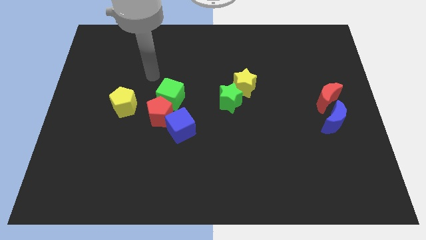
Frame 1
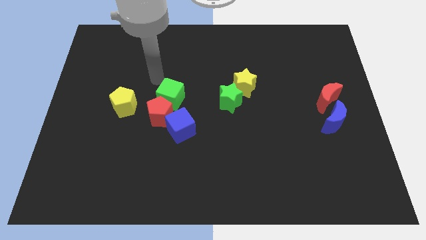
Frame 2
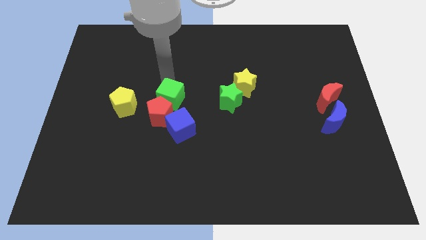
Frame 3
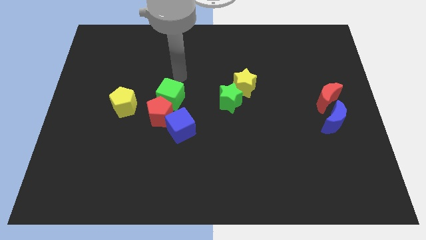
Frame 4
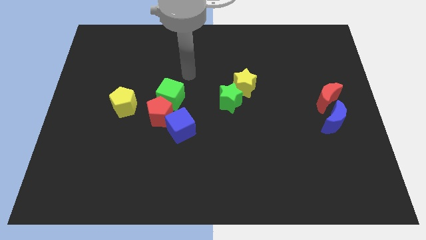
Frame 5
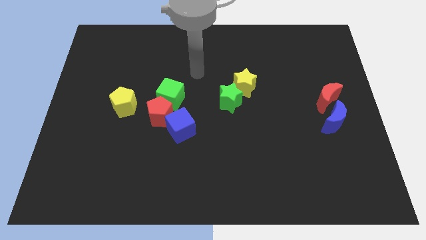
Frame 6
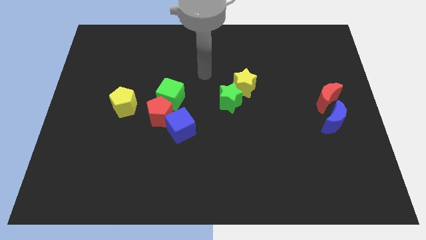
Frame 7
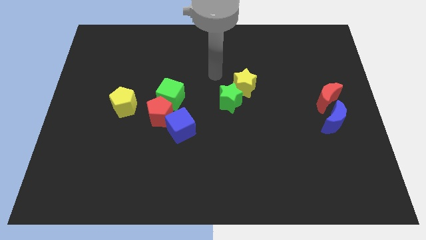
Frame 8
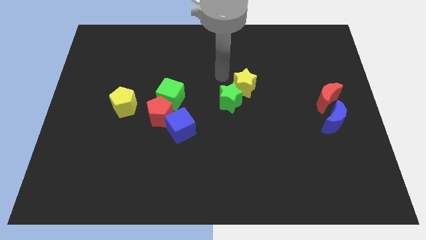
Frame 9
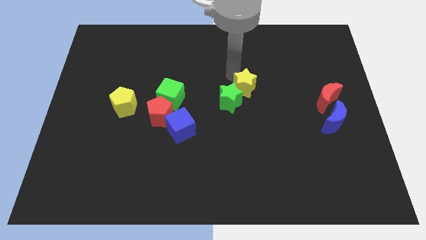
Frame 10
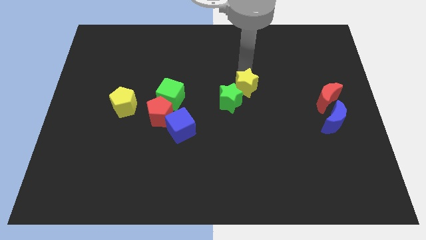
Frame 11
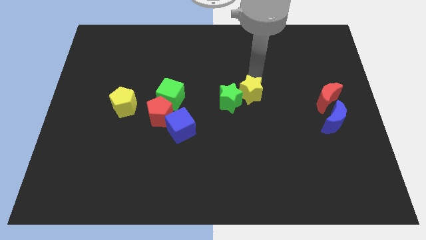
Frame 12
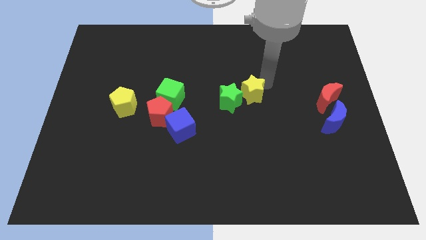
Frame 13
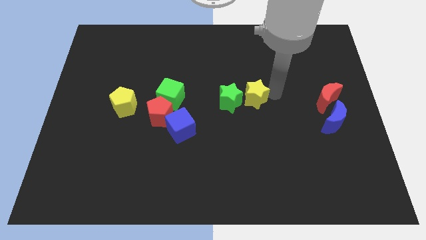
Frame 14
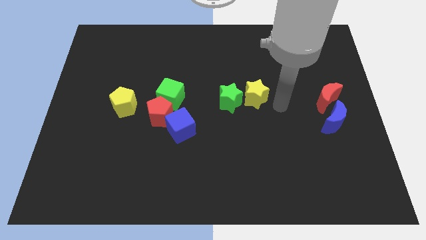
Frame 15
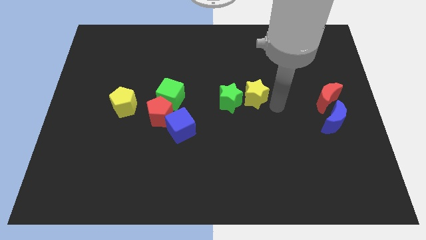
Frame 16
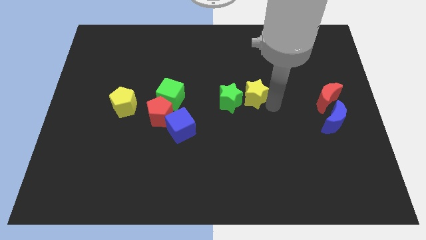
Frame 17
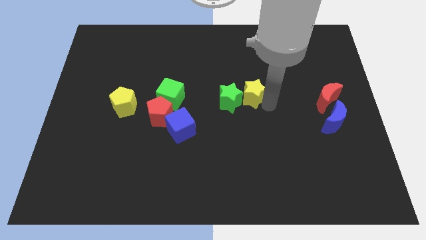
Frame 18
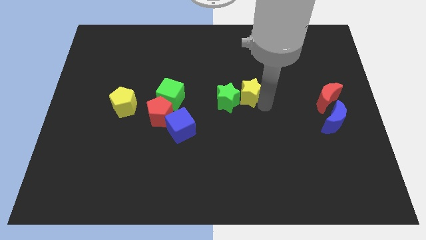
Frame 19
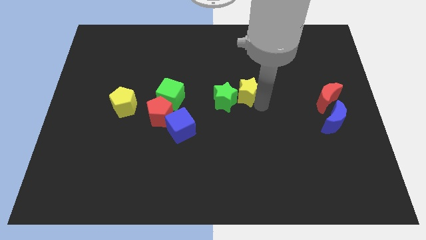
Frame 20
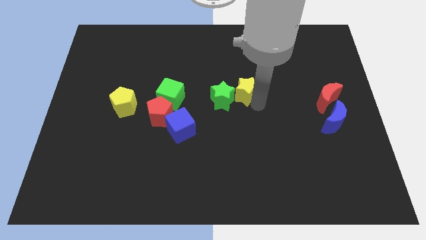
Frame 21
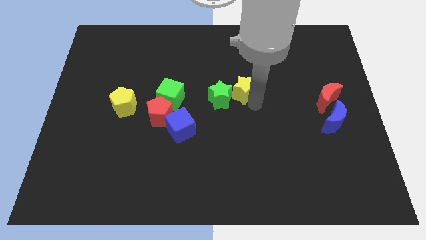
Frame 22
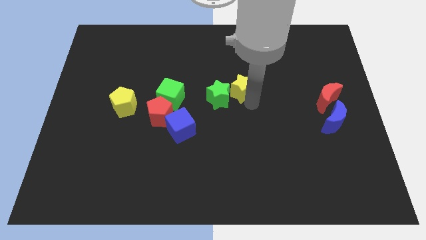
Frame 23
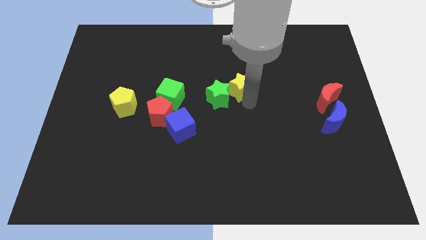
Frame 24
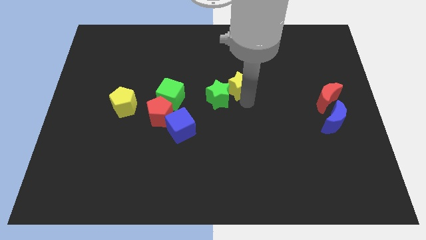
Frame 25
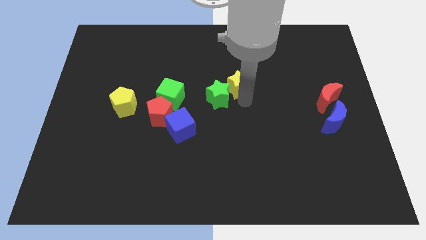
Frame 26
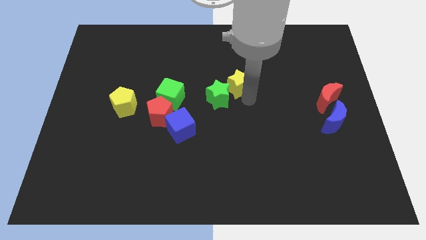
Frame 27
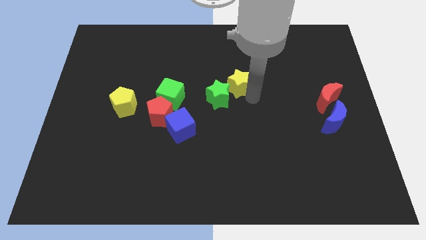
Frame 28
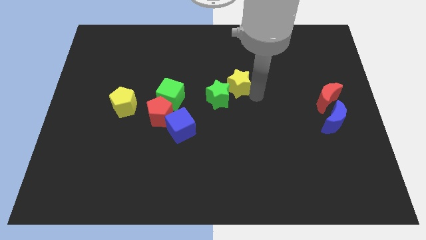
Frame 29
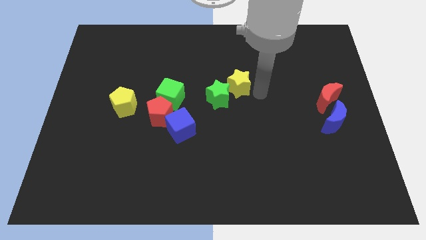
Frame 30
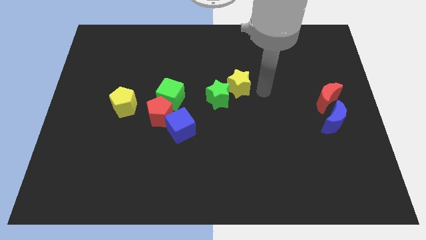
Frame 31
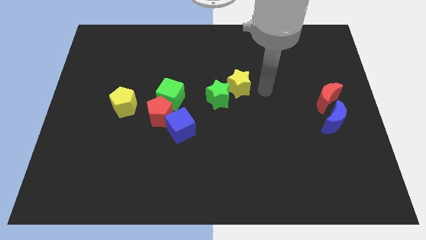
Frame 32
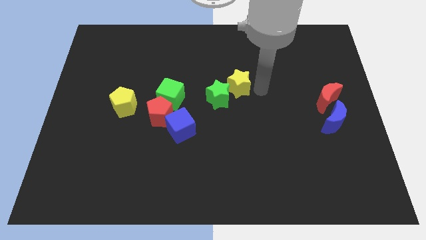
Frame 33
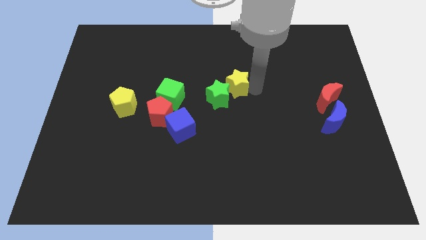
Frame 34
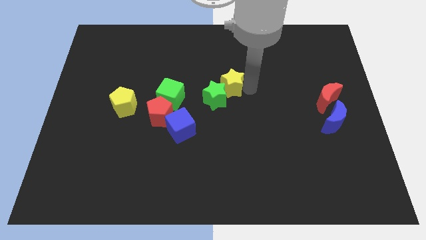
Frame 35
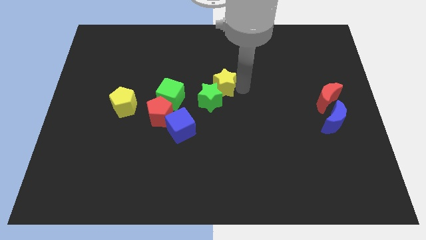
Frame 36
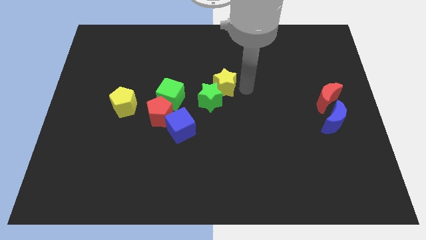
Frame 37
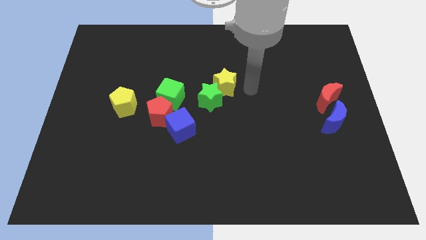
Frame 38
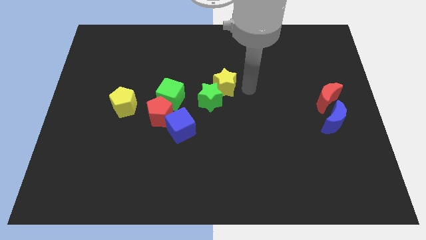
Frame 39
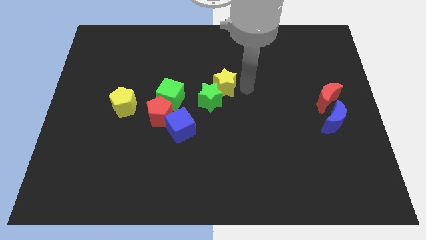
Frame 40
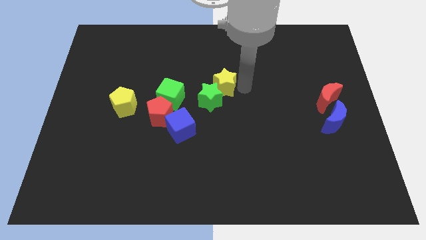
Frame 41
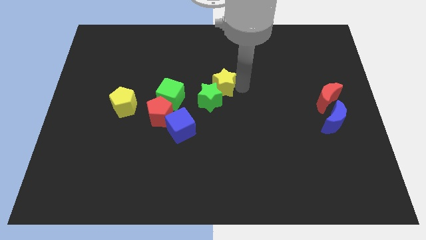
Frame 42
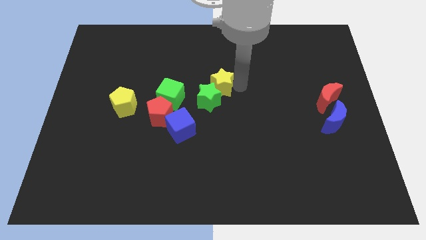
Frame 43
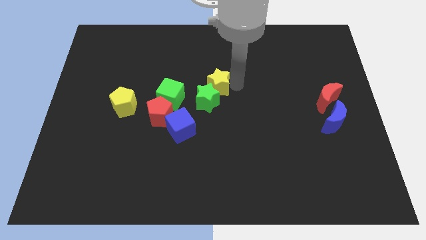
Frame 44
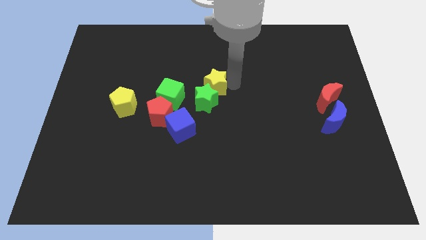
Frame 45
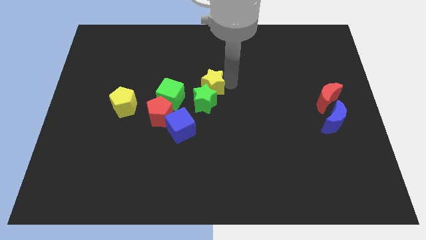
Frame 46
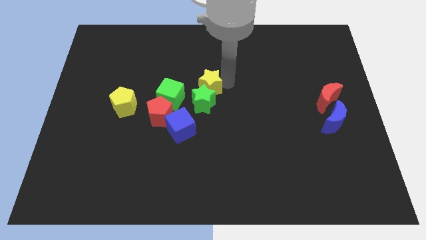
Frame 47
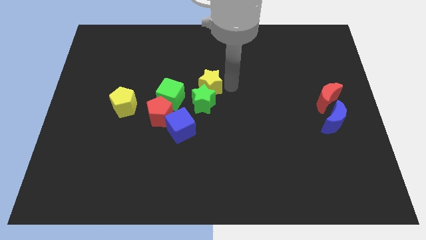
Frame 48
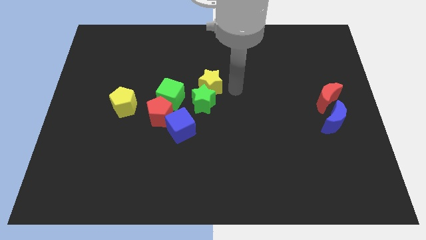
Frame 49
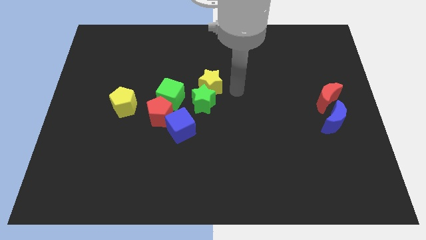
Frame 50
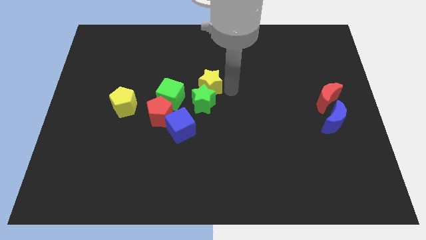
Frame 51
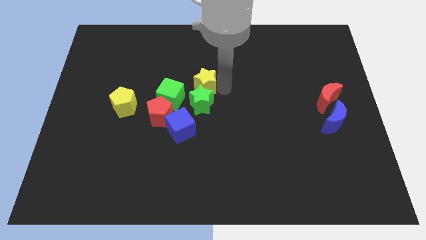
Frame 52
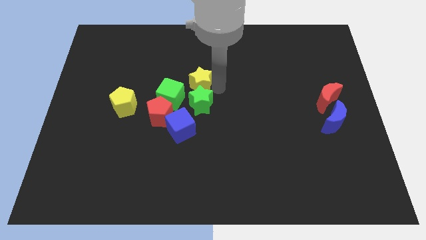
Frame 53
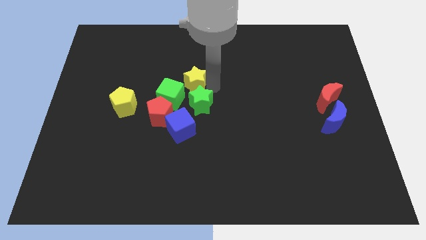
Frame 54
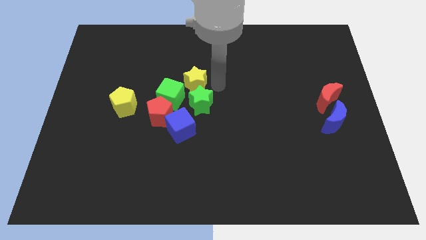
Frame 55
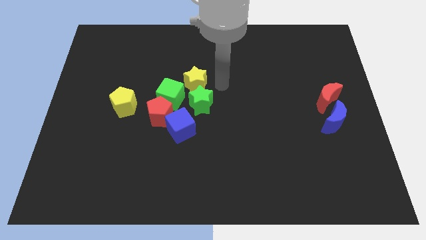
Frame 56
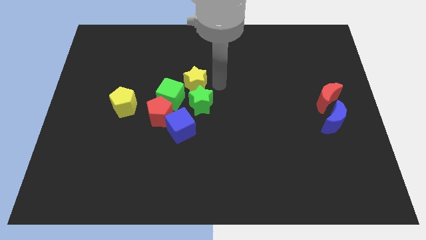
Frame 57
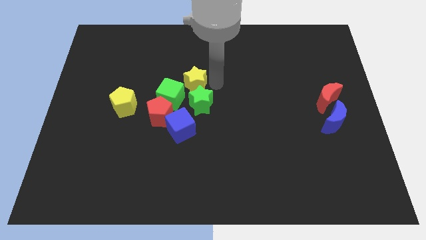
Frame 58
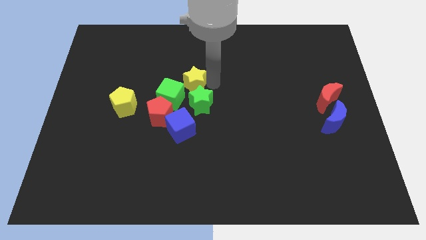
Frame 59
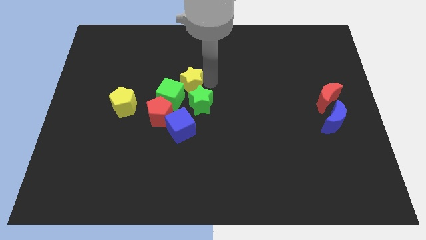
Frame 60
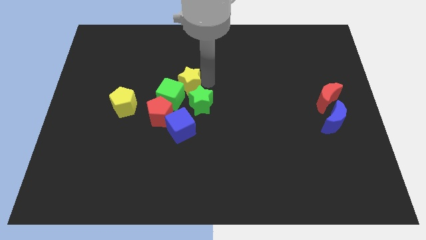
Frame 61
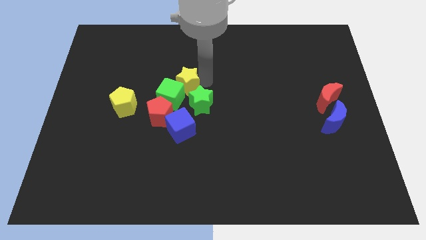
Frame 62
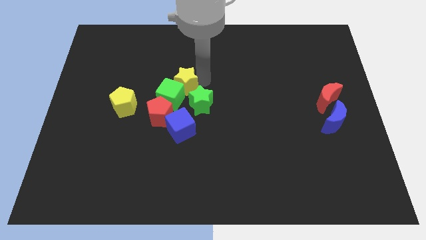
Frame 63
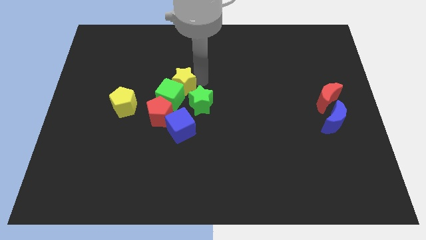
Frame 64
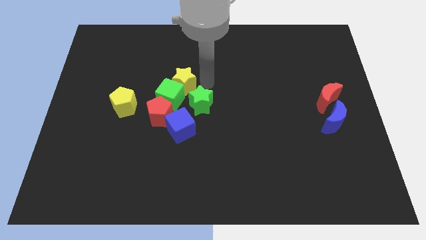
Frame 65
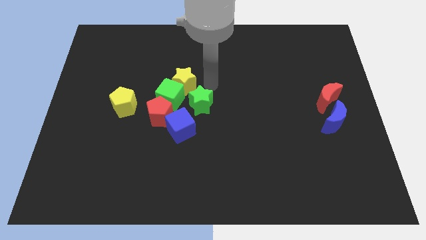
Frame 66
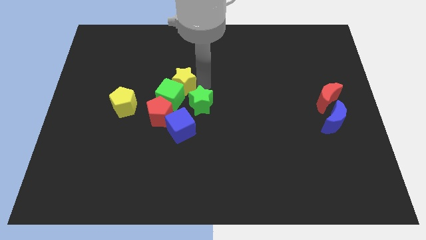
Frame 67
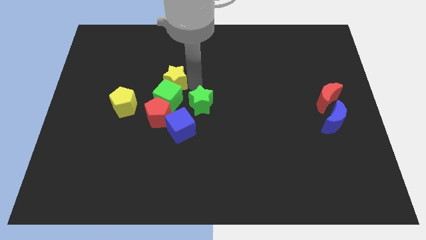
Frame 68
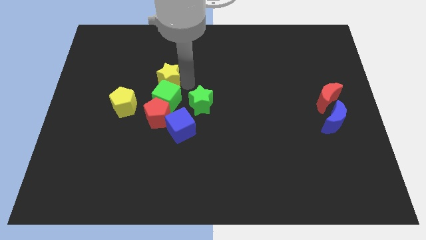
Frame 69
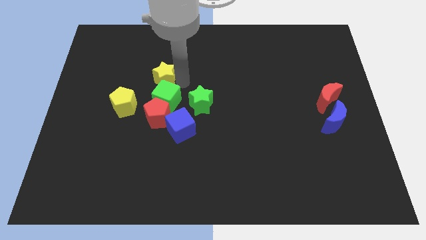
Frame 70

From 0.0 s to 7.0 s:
push the yellow star left

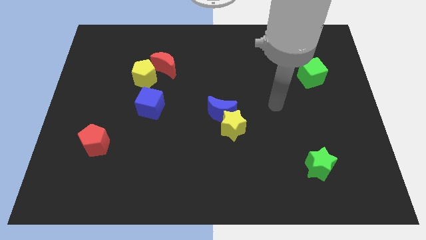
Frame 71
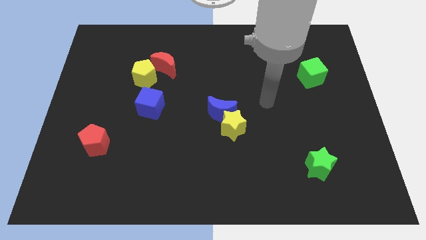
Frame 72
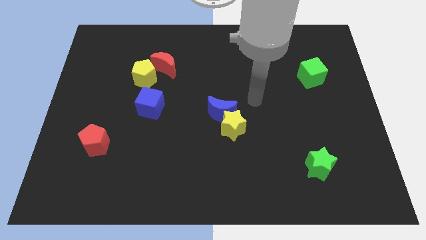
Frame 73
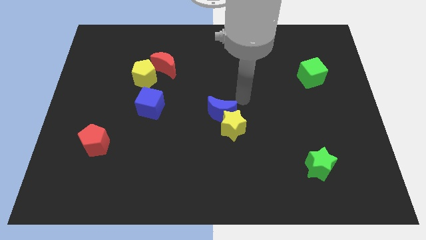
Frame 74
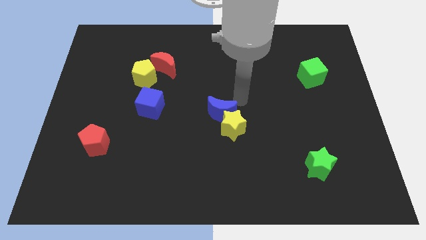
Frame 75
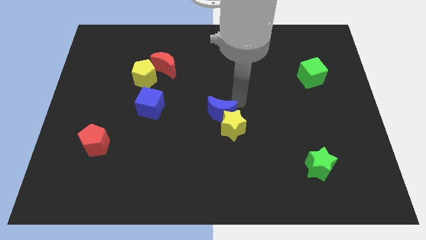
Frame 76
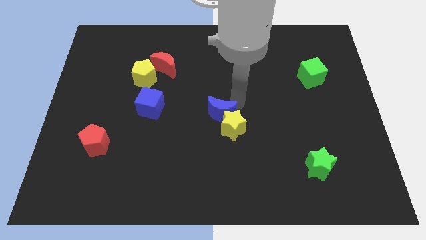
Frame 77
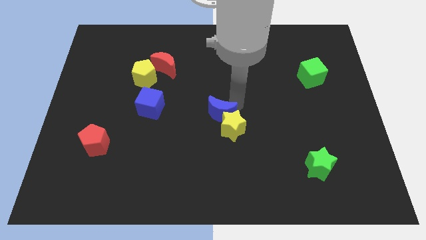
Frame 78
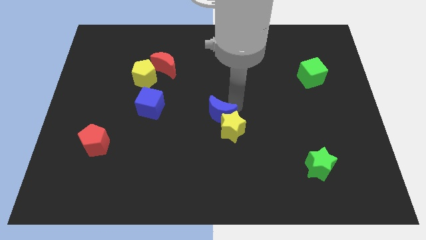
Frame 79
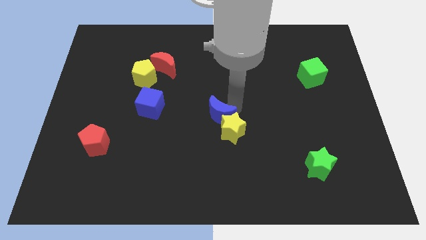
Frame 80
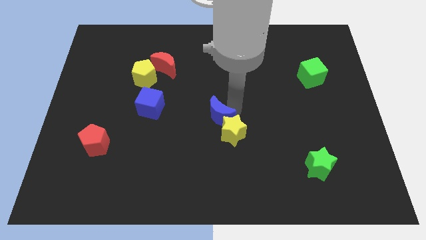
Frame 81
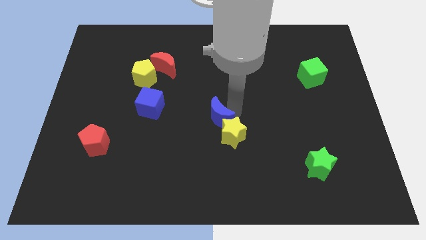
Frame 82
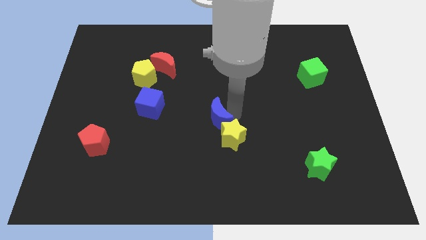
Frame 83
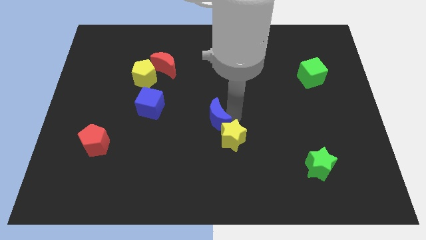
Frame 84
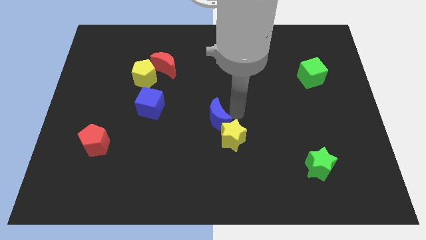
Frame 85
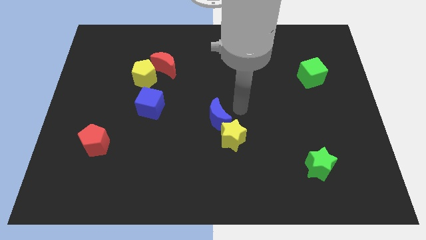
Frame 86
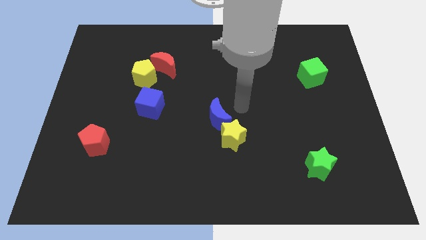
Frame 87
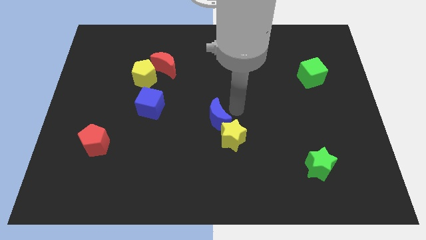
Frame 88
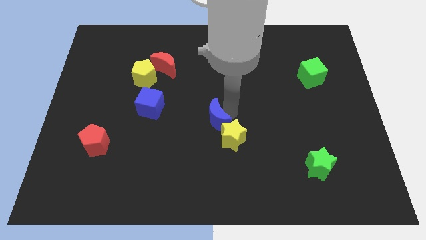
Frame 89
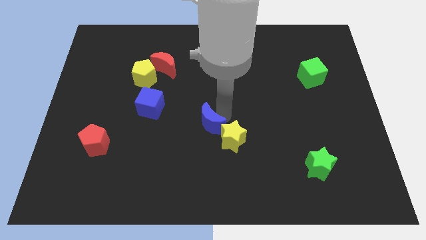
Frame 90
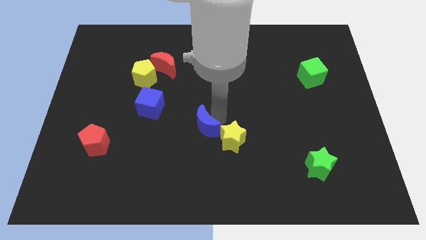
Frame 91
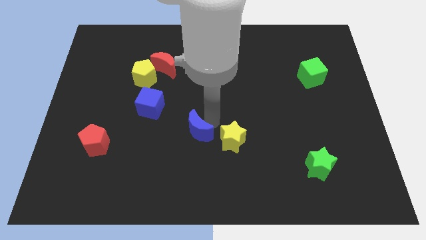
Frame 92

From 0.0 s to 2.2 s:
move the blue moon a bit down and left diagonally
